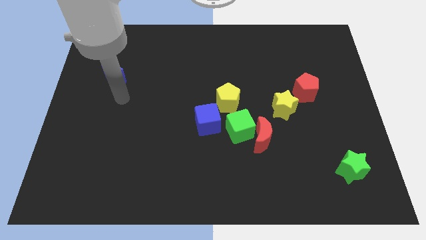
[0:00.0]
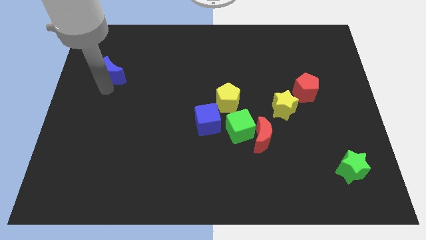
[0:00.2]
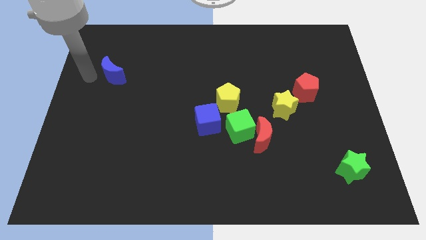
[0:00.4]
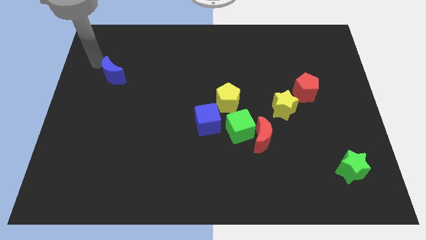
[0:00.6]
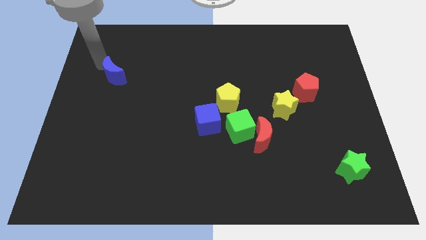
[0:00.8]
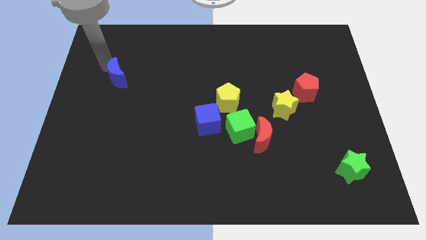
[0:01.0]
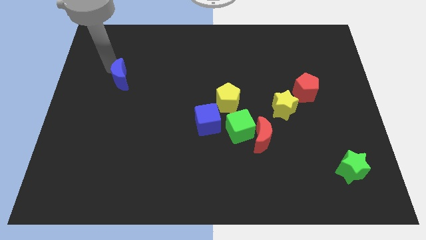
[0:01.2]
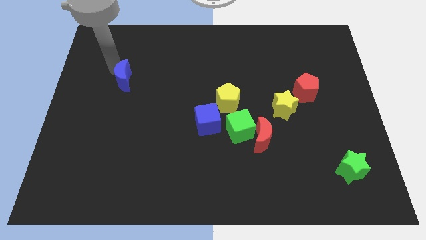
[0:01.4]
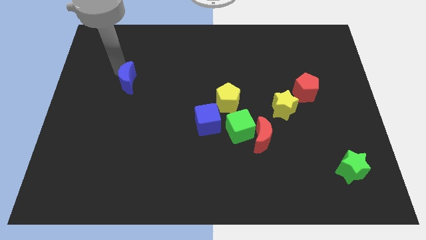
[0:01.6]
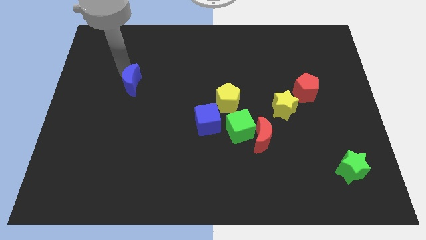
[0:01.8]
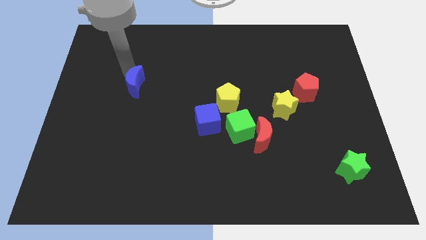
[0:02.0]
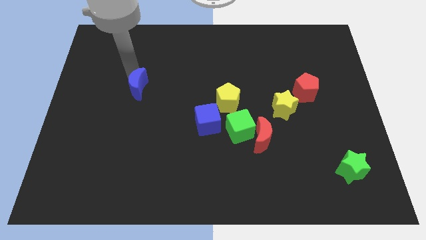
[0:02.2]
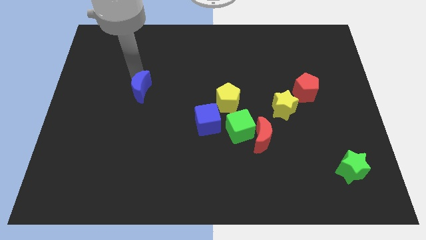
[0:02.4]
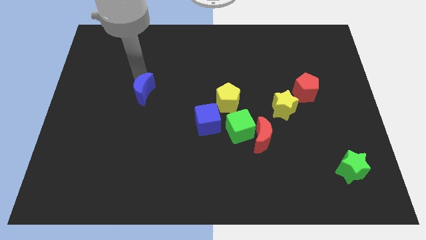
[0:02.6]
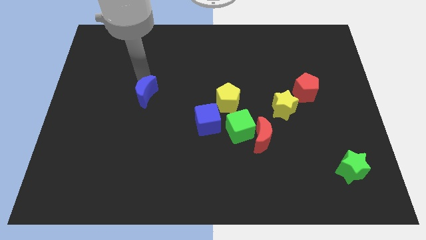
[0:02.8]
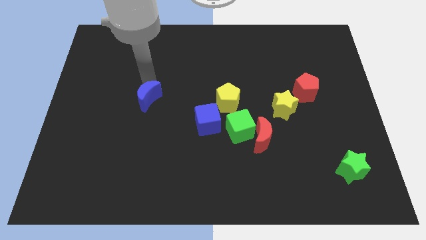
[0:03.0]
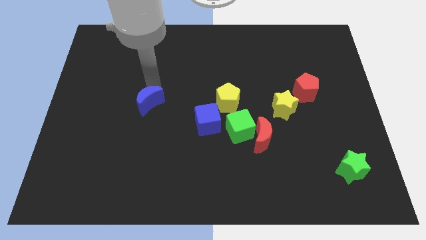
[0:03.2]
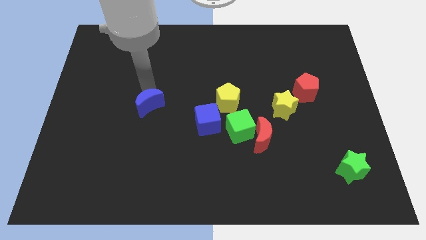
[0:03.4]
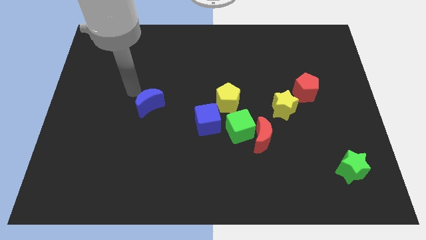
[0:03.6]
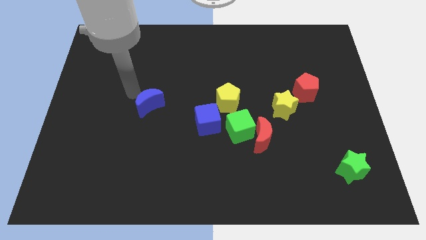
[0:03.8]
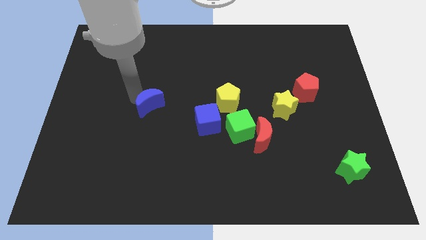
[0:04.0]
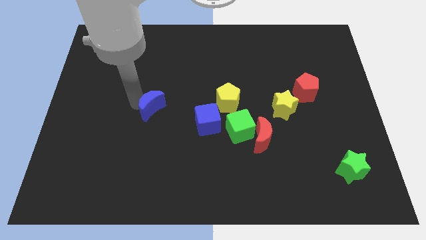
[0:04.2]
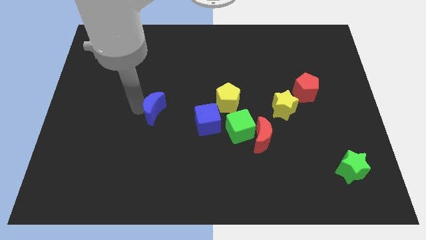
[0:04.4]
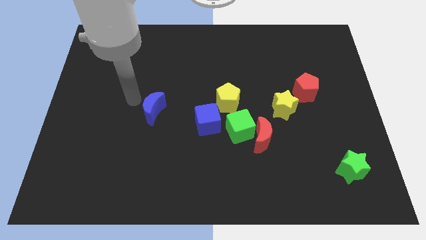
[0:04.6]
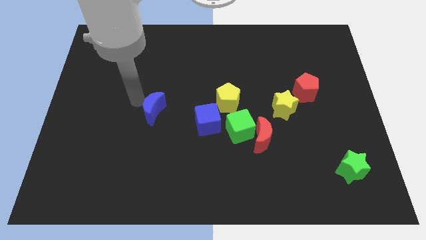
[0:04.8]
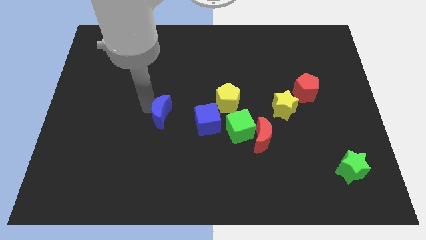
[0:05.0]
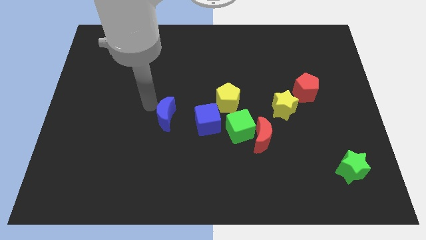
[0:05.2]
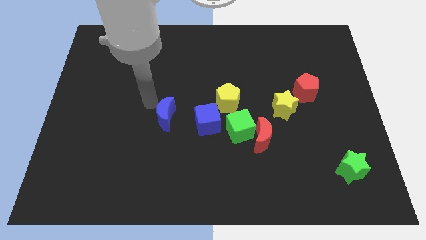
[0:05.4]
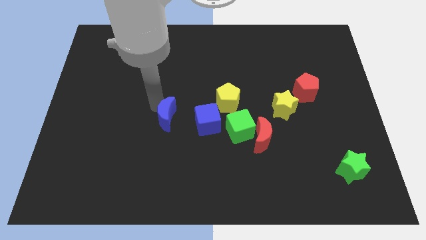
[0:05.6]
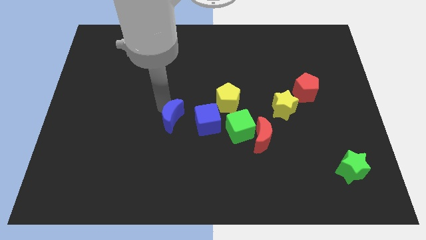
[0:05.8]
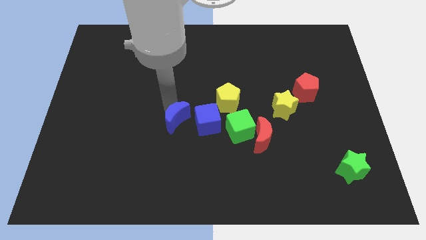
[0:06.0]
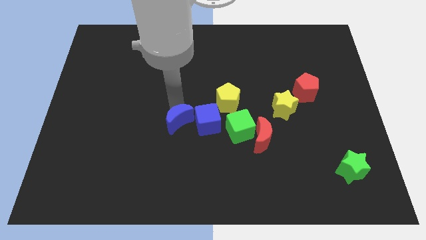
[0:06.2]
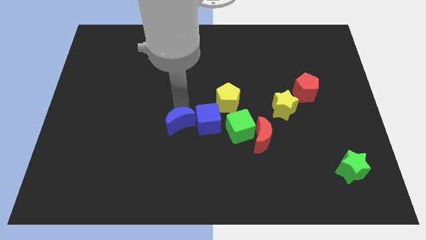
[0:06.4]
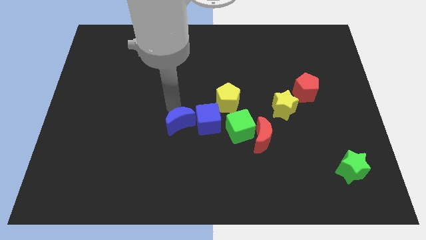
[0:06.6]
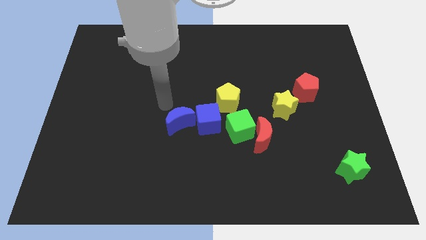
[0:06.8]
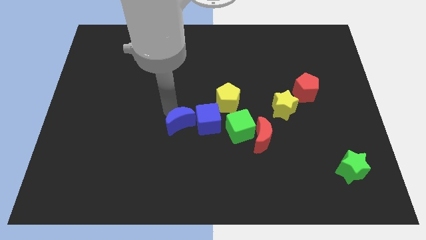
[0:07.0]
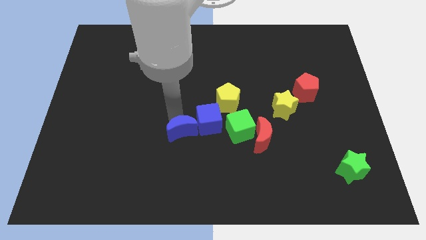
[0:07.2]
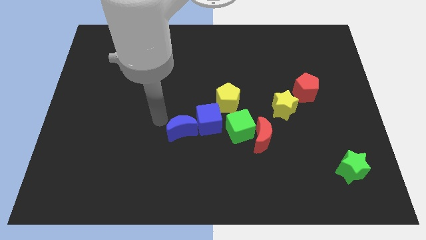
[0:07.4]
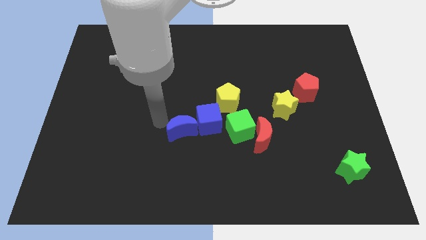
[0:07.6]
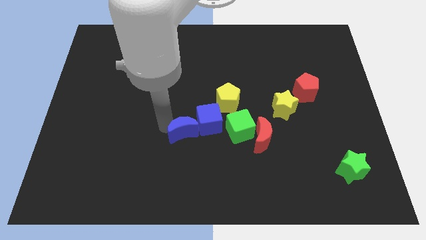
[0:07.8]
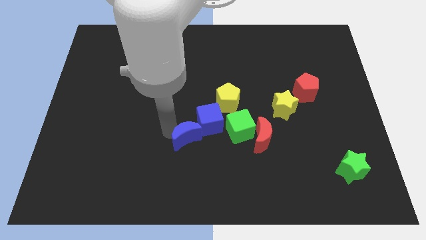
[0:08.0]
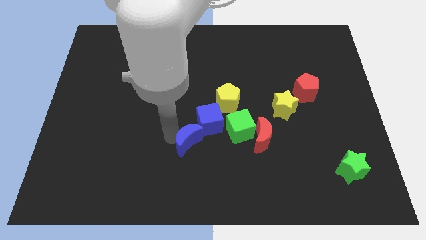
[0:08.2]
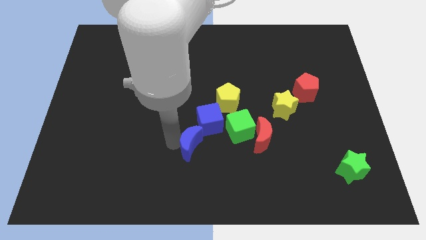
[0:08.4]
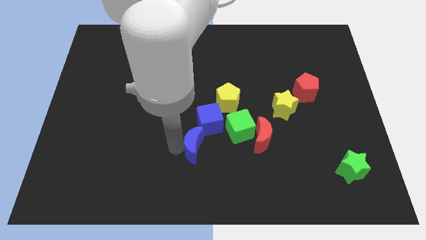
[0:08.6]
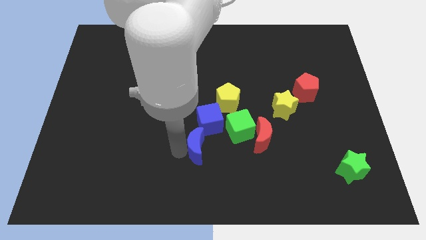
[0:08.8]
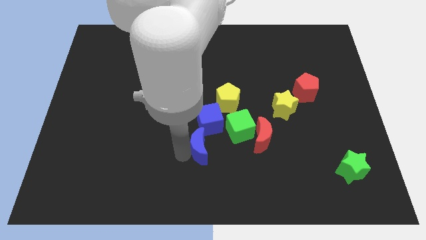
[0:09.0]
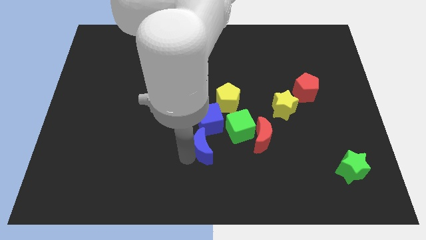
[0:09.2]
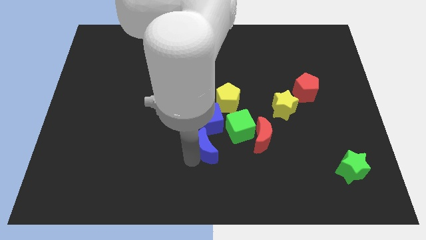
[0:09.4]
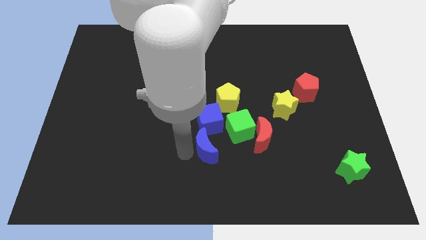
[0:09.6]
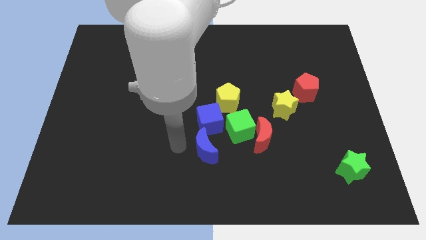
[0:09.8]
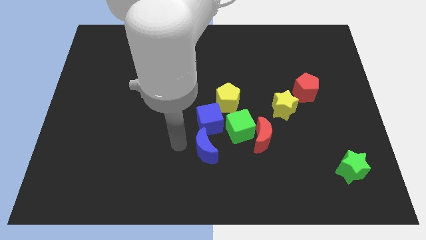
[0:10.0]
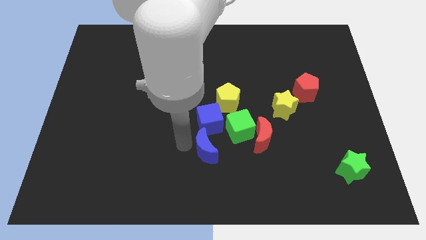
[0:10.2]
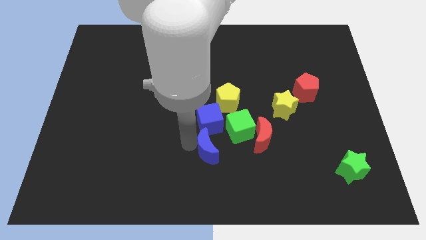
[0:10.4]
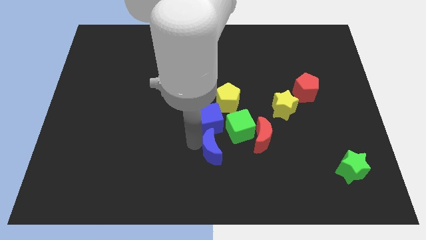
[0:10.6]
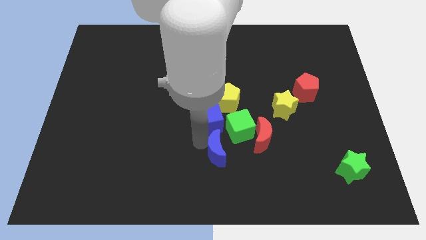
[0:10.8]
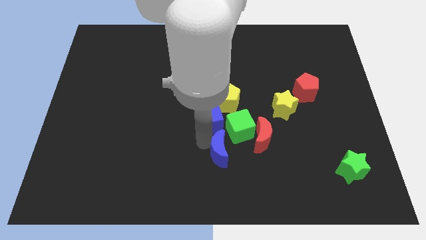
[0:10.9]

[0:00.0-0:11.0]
put the blue moon below the green cube

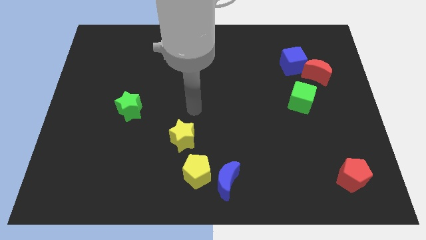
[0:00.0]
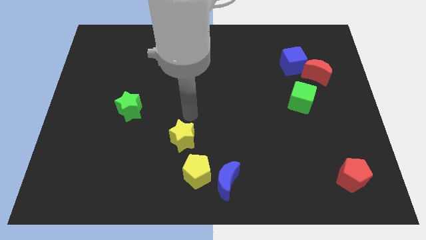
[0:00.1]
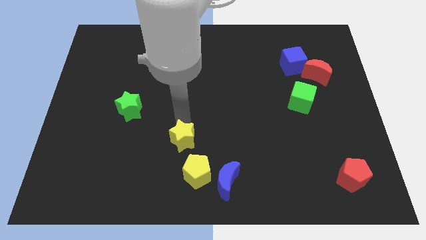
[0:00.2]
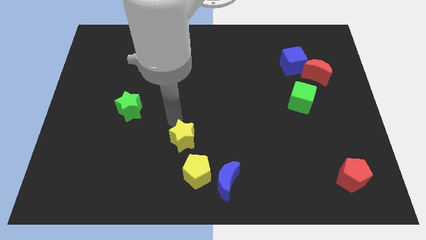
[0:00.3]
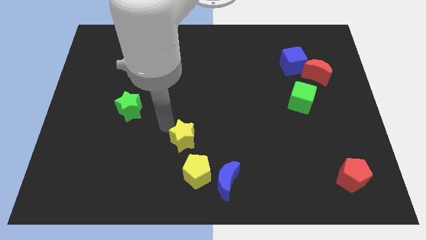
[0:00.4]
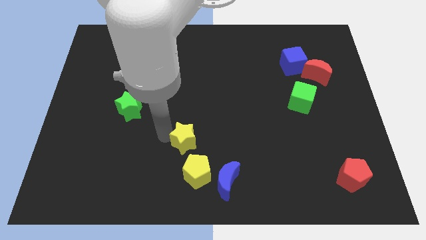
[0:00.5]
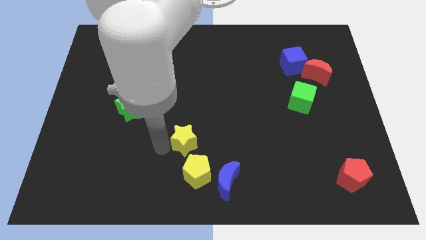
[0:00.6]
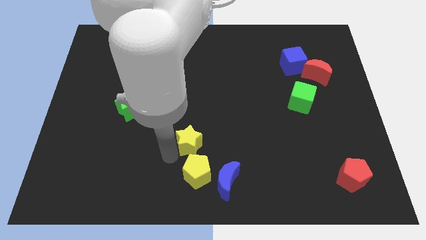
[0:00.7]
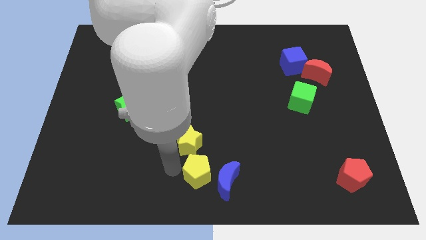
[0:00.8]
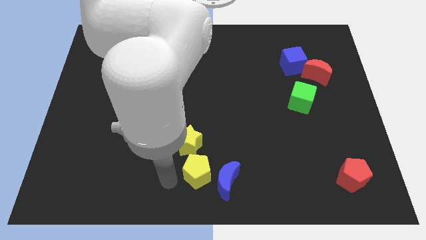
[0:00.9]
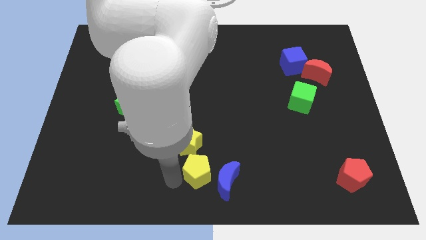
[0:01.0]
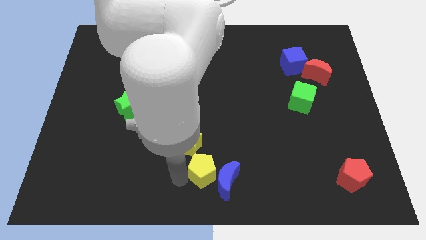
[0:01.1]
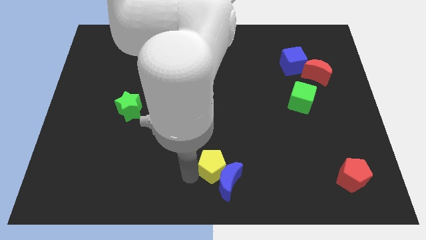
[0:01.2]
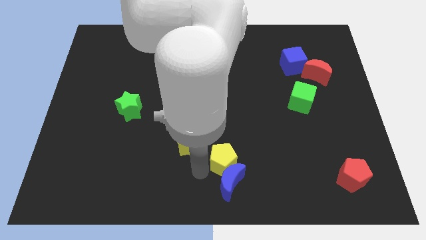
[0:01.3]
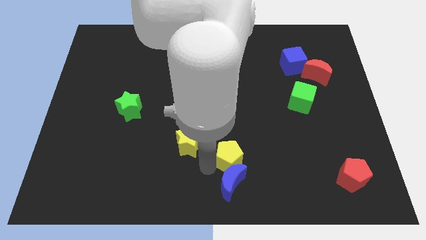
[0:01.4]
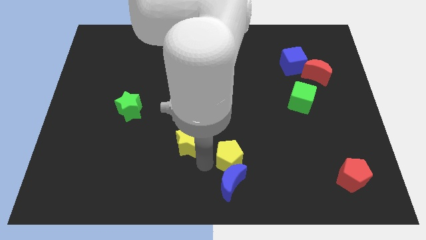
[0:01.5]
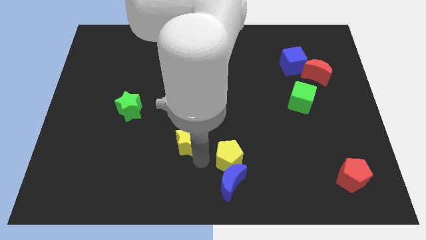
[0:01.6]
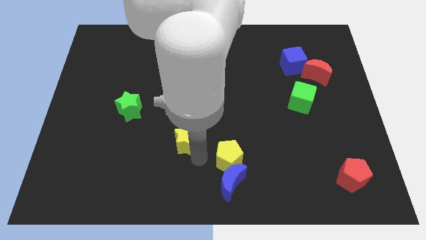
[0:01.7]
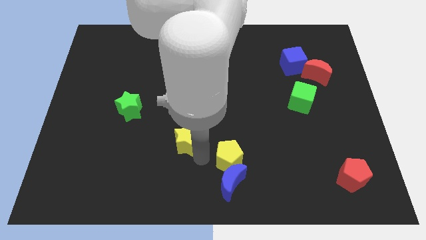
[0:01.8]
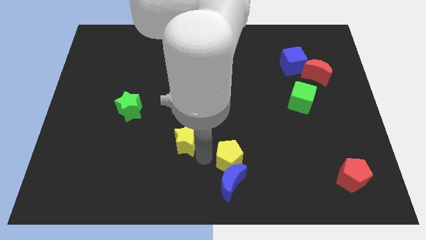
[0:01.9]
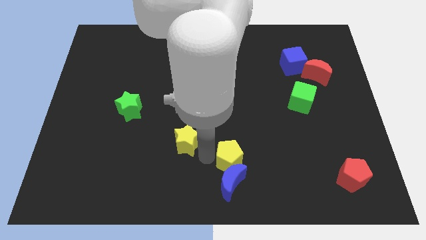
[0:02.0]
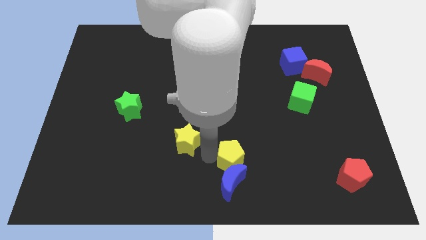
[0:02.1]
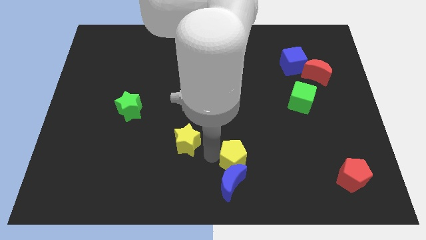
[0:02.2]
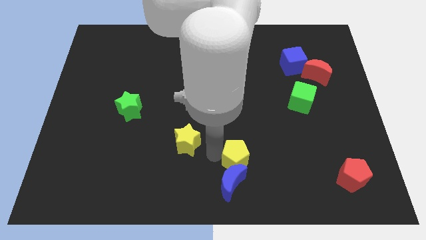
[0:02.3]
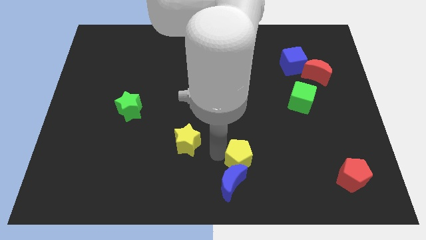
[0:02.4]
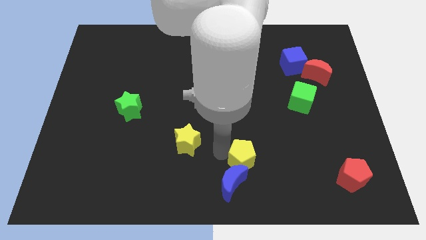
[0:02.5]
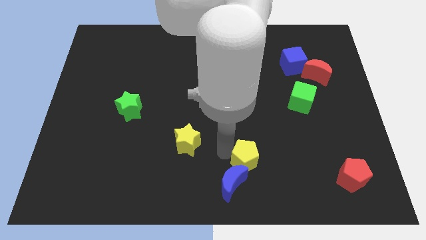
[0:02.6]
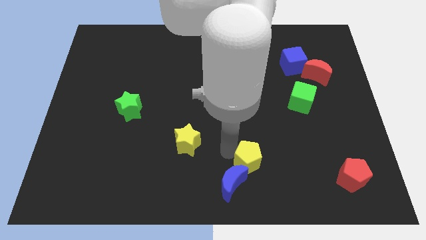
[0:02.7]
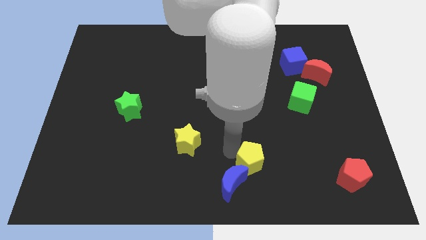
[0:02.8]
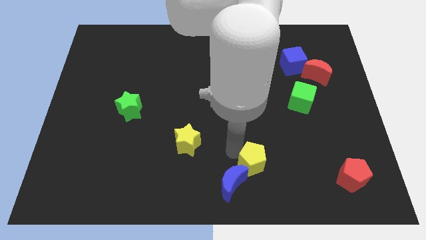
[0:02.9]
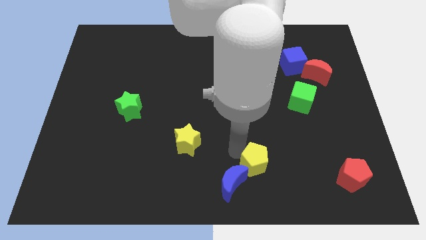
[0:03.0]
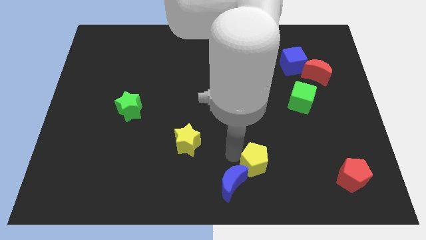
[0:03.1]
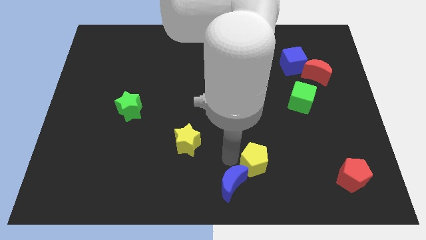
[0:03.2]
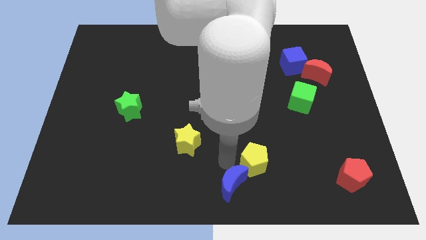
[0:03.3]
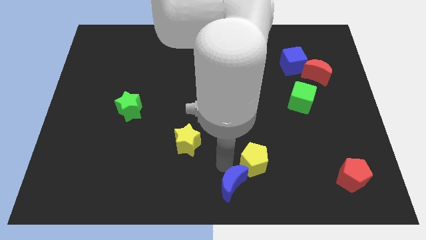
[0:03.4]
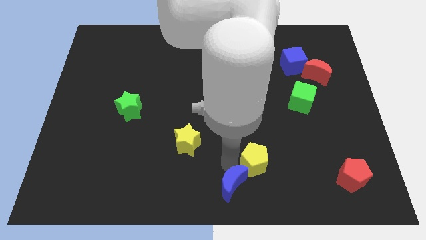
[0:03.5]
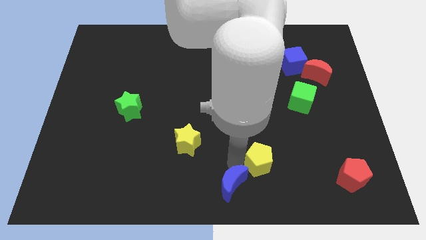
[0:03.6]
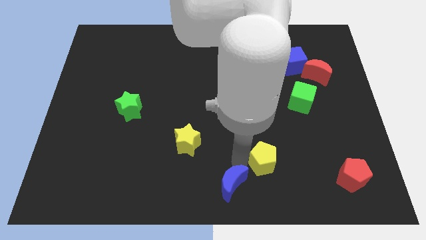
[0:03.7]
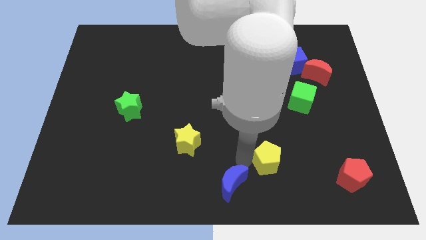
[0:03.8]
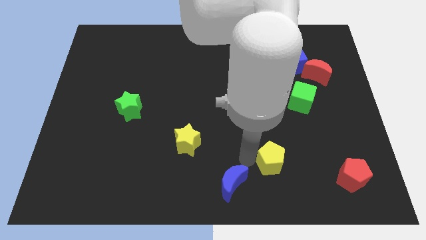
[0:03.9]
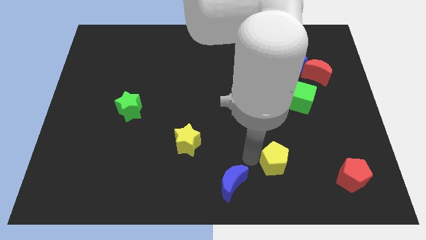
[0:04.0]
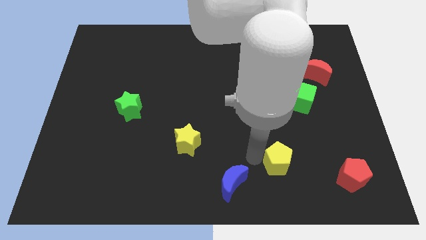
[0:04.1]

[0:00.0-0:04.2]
put the yellow pentagon to the left of the red pentagon
